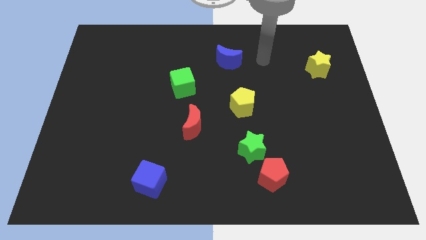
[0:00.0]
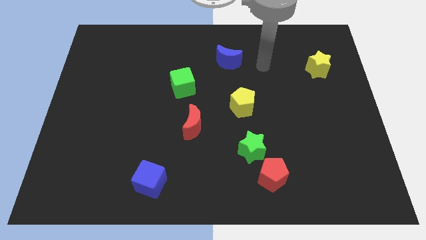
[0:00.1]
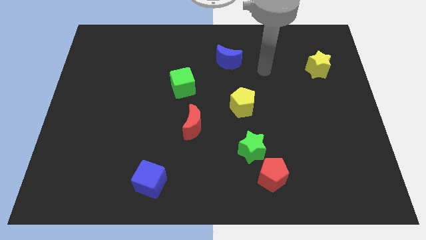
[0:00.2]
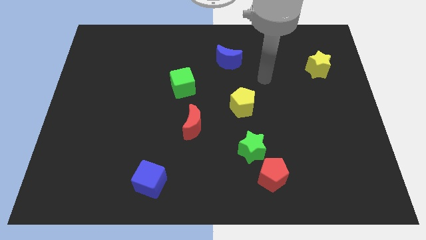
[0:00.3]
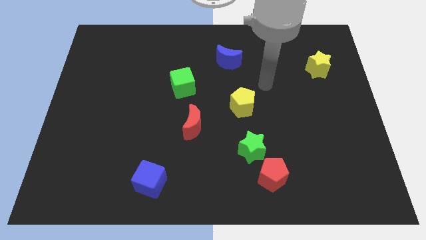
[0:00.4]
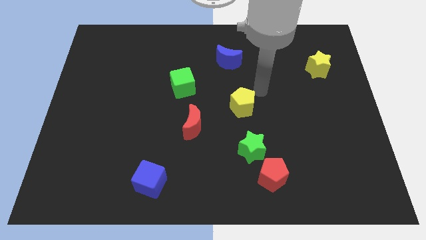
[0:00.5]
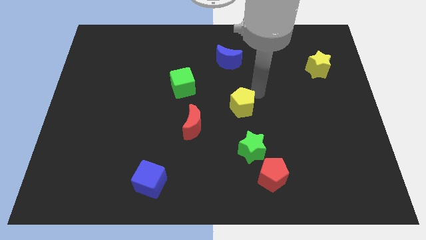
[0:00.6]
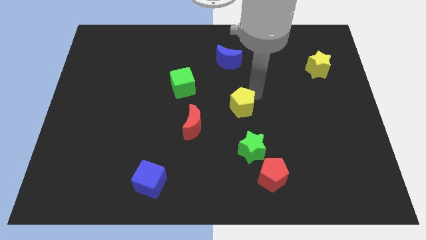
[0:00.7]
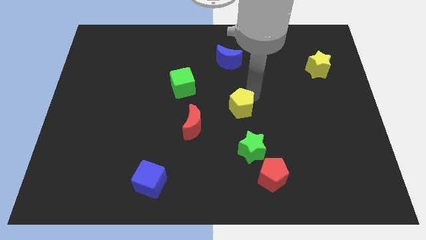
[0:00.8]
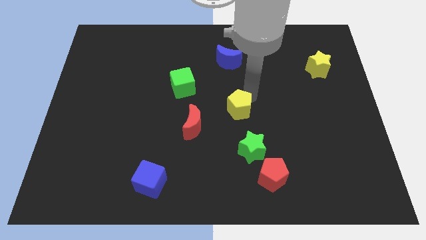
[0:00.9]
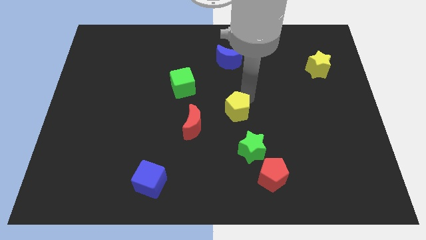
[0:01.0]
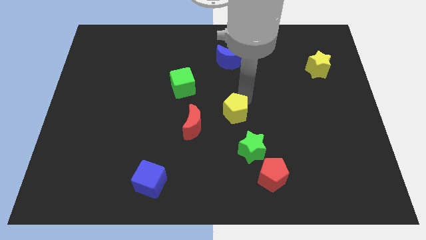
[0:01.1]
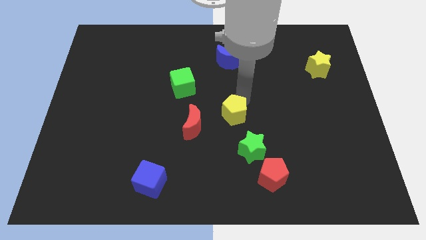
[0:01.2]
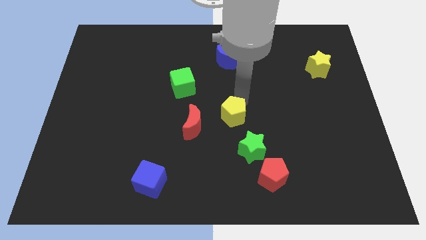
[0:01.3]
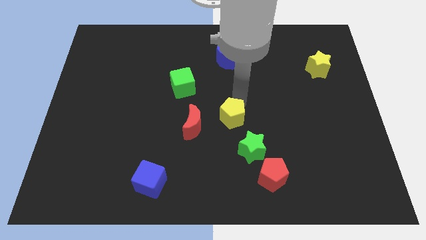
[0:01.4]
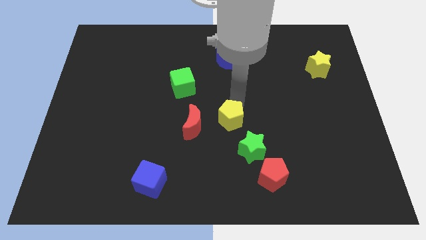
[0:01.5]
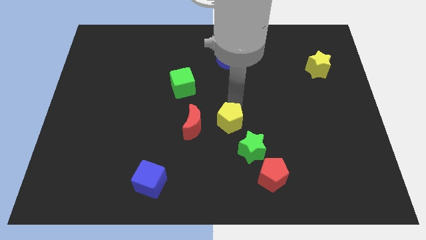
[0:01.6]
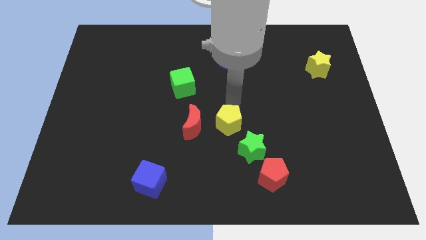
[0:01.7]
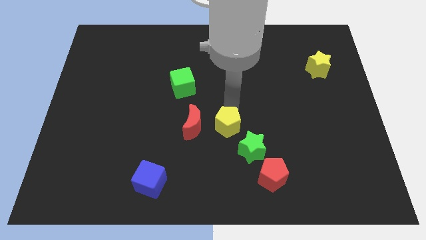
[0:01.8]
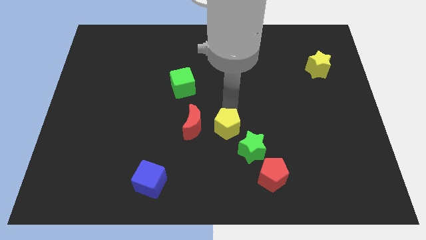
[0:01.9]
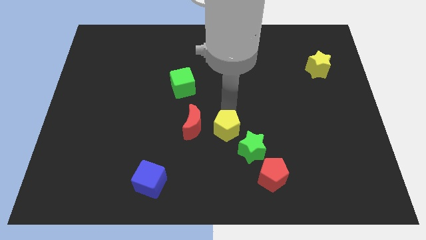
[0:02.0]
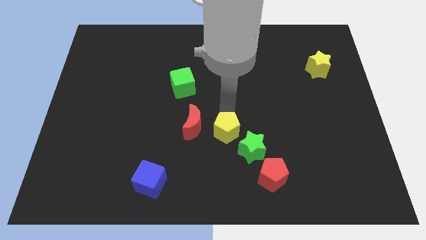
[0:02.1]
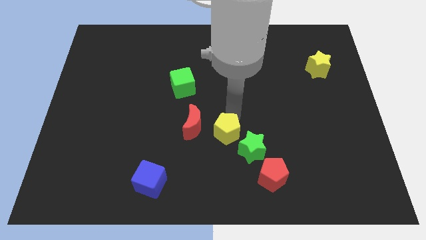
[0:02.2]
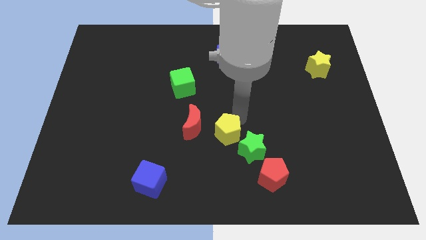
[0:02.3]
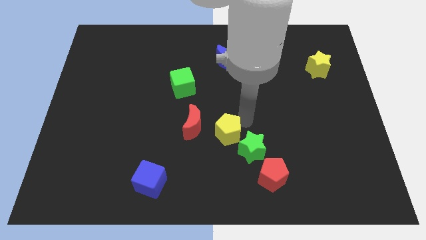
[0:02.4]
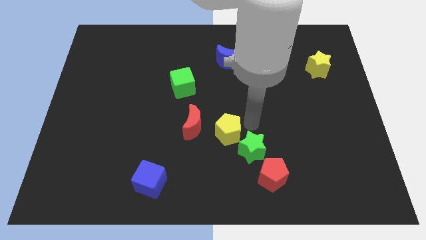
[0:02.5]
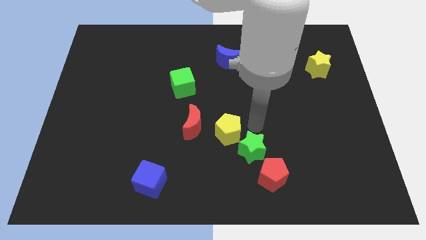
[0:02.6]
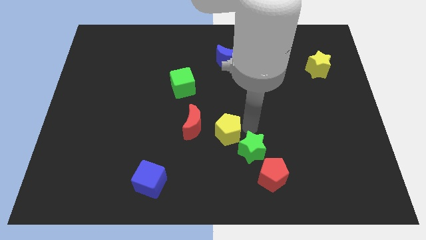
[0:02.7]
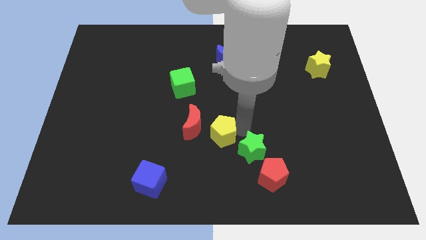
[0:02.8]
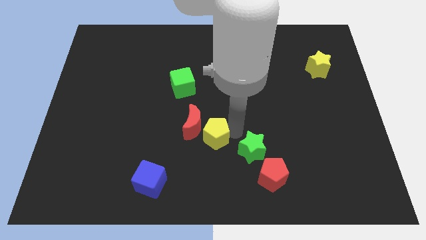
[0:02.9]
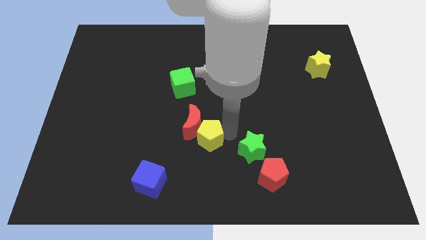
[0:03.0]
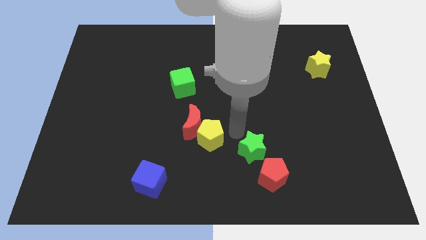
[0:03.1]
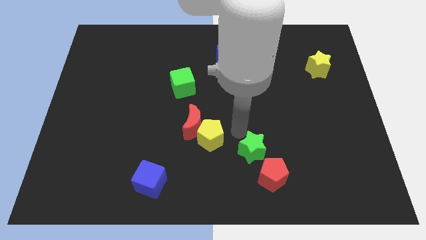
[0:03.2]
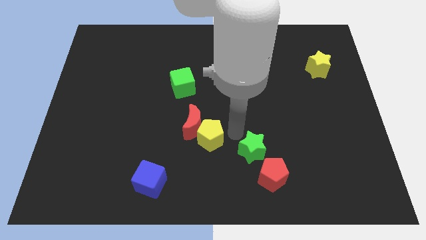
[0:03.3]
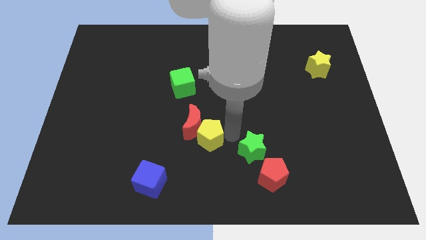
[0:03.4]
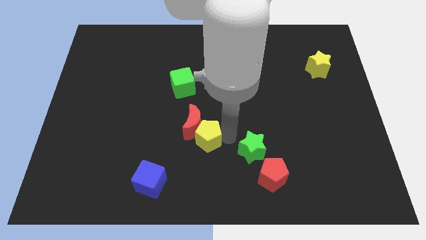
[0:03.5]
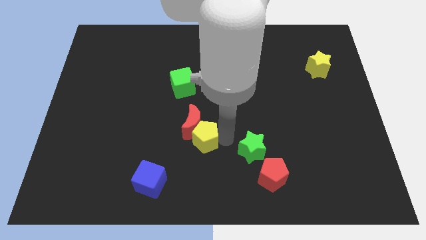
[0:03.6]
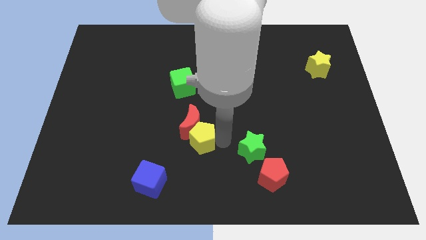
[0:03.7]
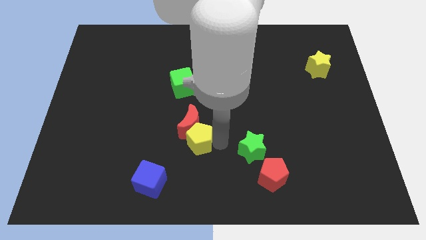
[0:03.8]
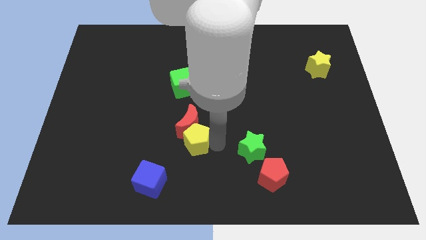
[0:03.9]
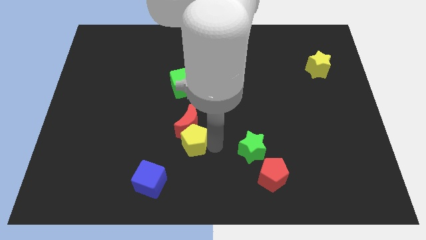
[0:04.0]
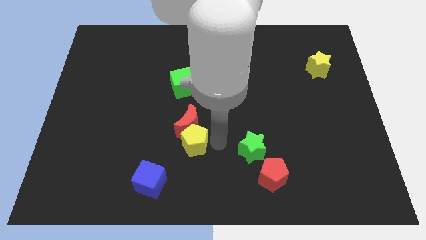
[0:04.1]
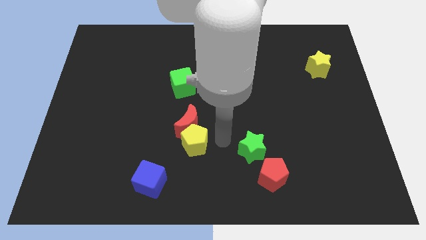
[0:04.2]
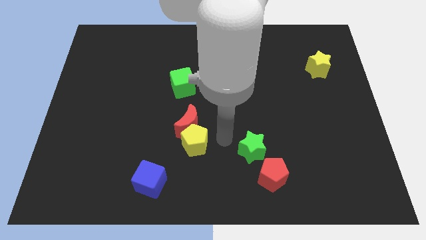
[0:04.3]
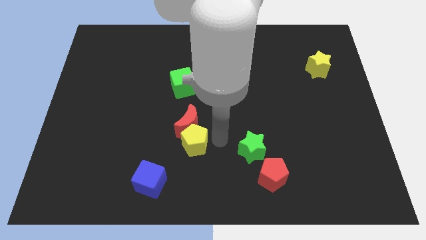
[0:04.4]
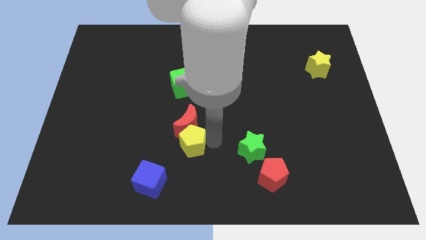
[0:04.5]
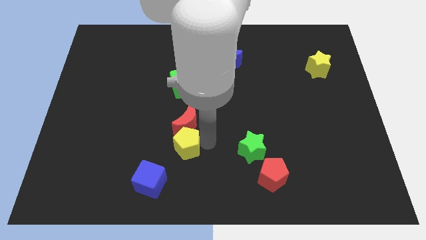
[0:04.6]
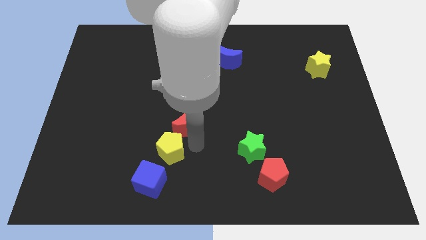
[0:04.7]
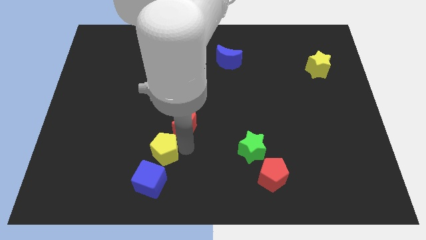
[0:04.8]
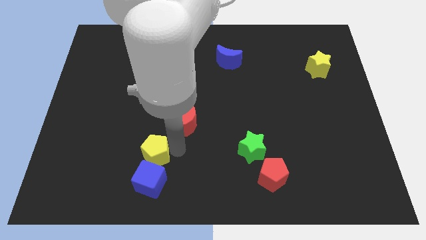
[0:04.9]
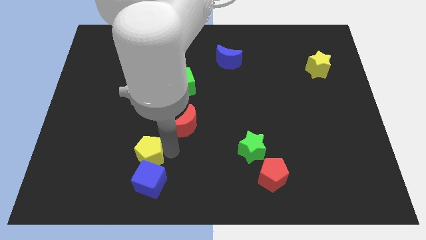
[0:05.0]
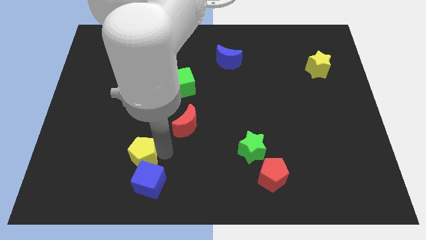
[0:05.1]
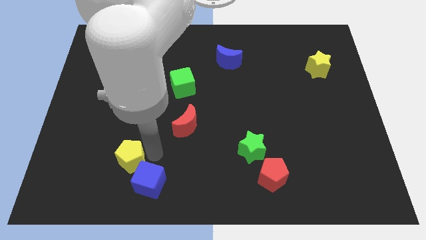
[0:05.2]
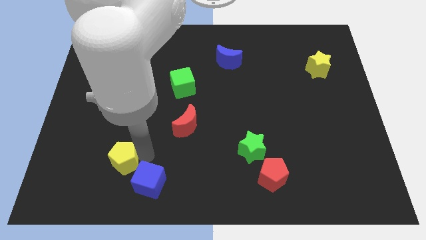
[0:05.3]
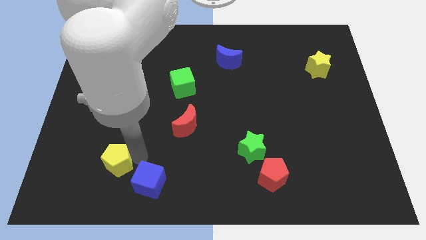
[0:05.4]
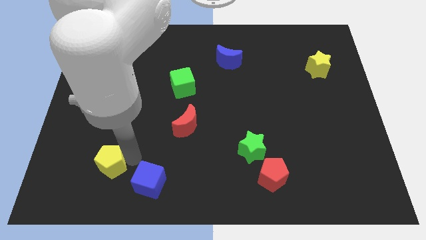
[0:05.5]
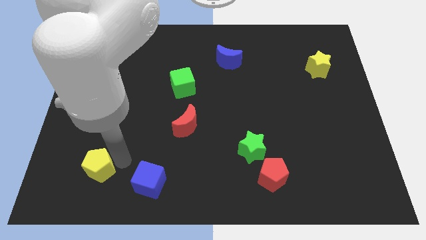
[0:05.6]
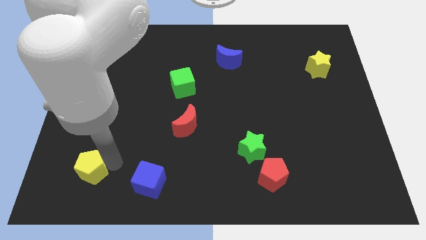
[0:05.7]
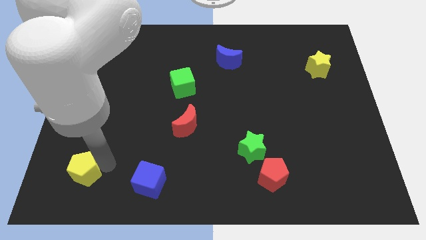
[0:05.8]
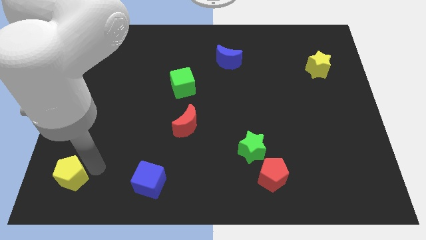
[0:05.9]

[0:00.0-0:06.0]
push the yellow pentagon to the bottom left

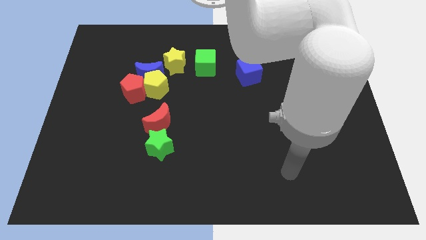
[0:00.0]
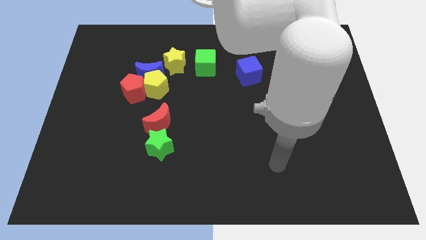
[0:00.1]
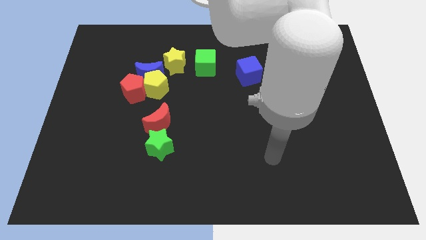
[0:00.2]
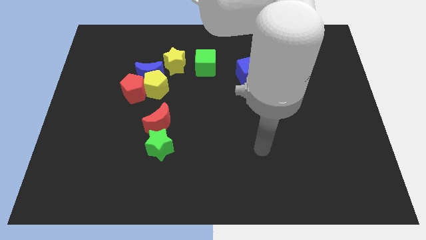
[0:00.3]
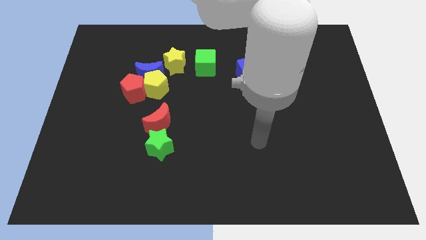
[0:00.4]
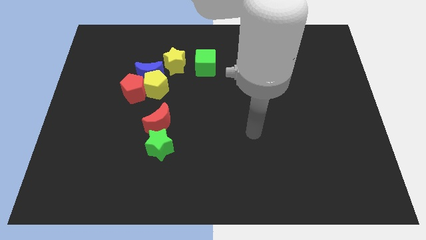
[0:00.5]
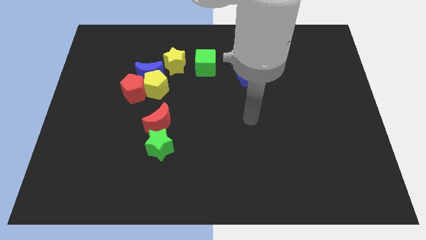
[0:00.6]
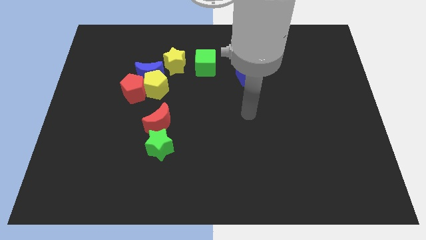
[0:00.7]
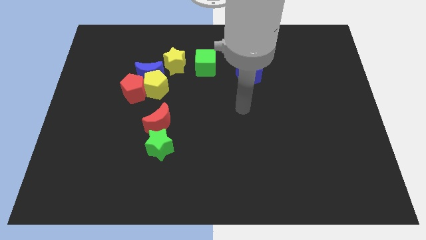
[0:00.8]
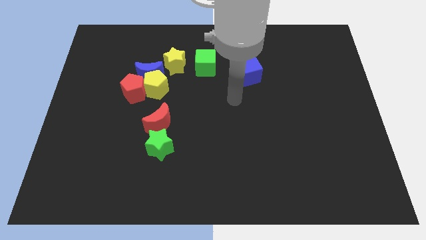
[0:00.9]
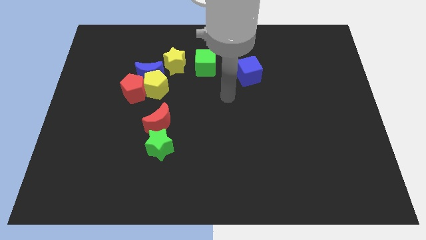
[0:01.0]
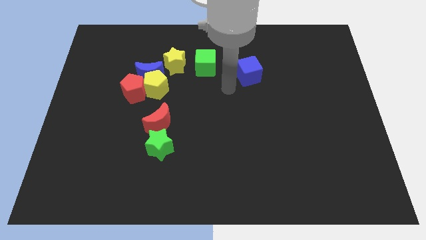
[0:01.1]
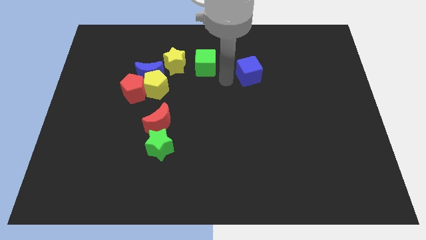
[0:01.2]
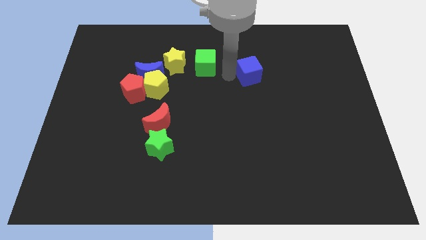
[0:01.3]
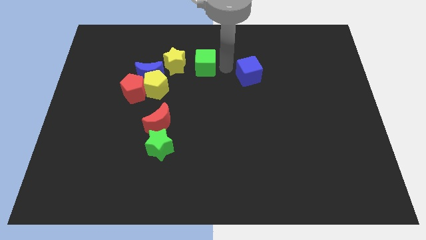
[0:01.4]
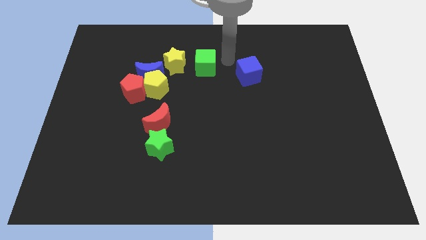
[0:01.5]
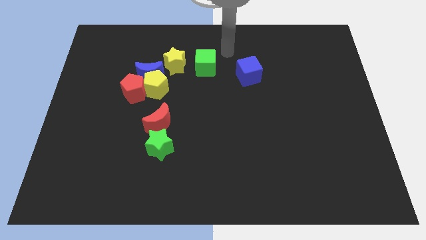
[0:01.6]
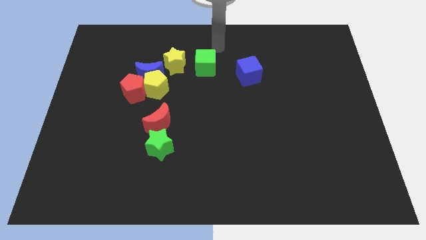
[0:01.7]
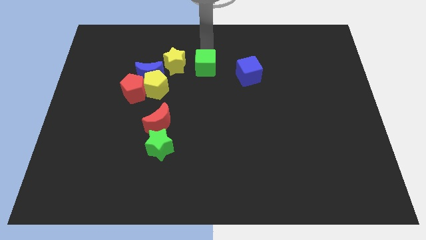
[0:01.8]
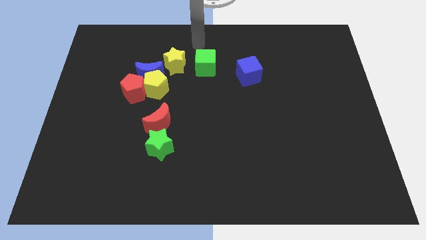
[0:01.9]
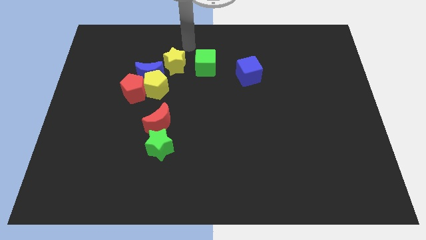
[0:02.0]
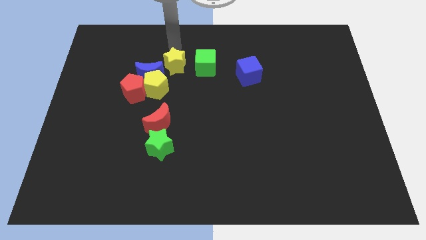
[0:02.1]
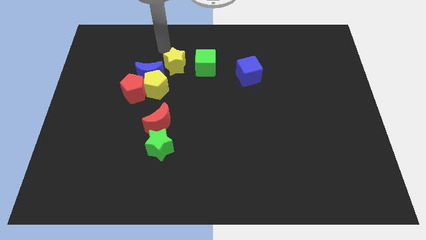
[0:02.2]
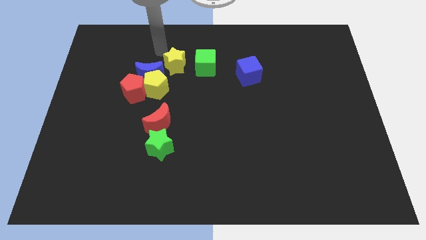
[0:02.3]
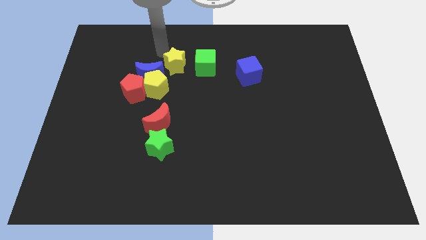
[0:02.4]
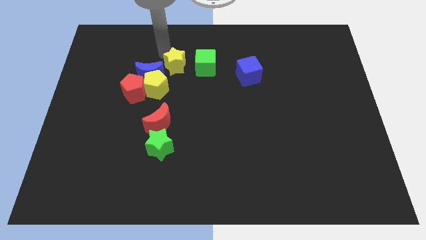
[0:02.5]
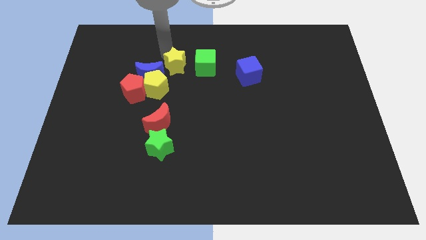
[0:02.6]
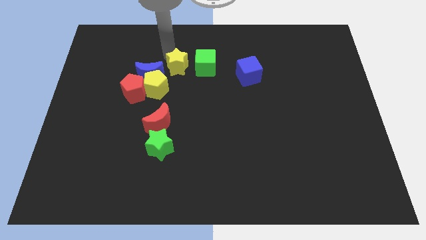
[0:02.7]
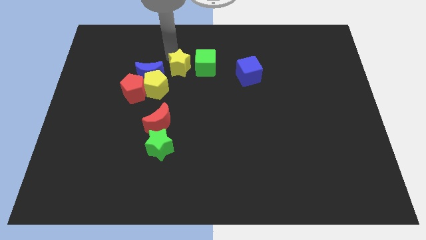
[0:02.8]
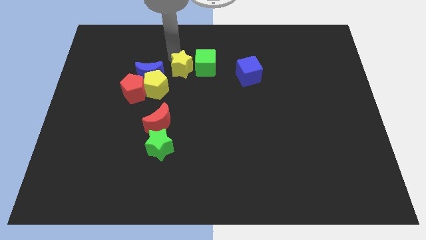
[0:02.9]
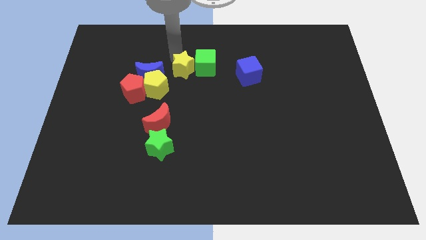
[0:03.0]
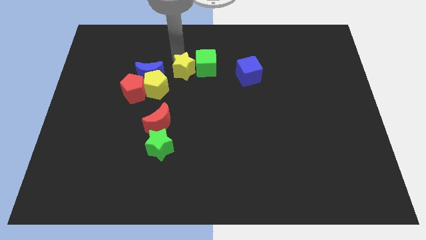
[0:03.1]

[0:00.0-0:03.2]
put the yellow star to the center
